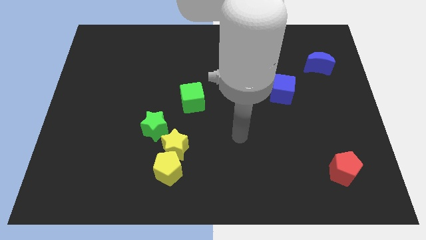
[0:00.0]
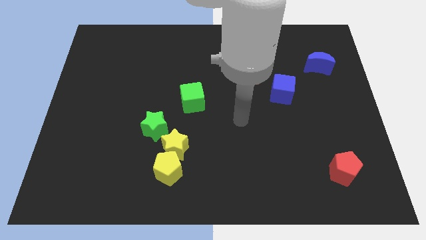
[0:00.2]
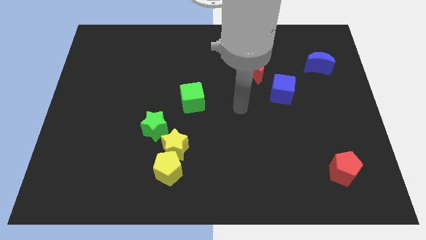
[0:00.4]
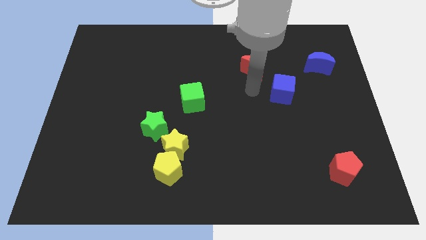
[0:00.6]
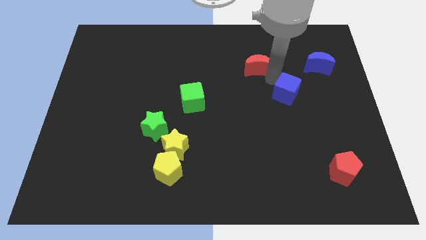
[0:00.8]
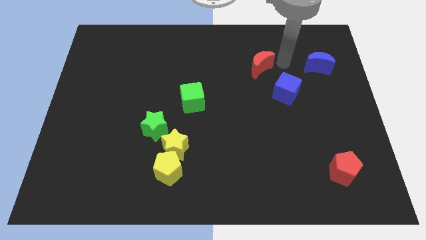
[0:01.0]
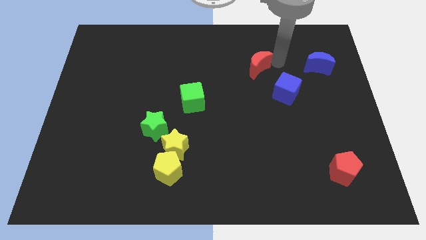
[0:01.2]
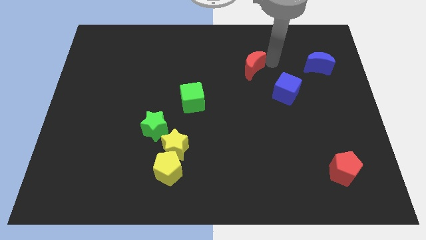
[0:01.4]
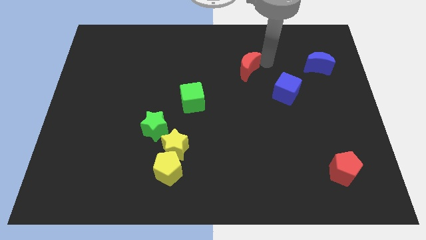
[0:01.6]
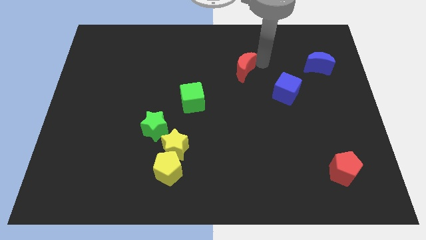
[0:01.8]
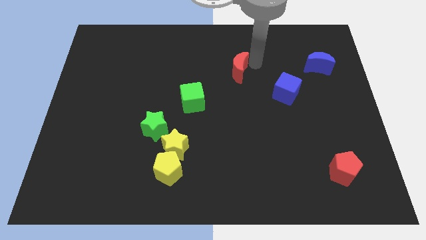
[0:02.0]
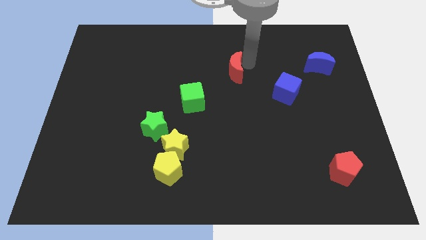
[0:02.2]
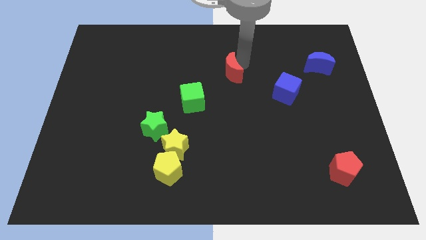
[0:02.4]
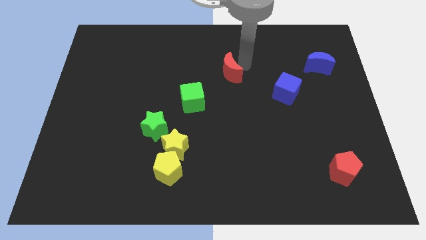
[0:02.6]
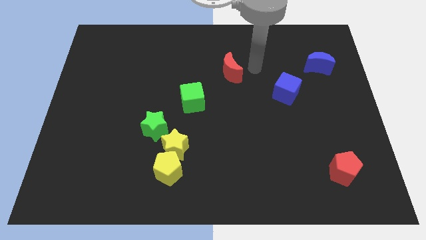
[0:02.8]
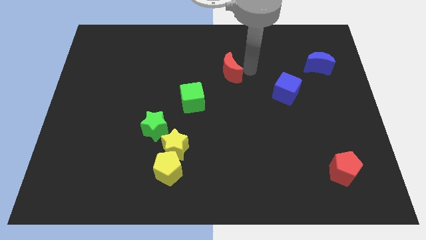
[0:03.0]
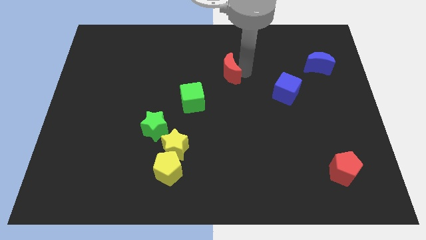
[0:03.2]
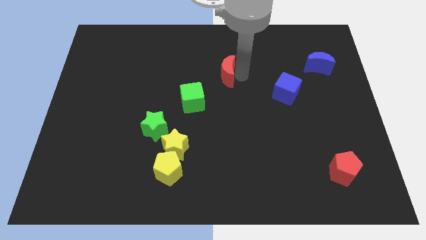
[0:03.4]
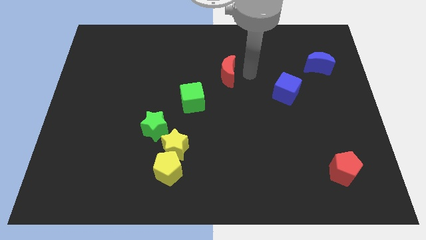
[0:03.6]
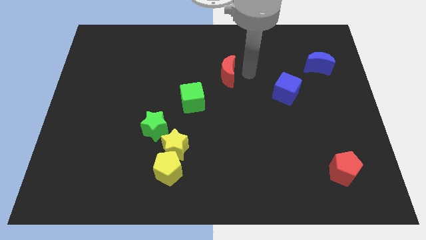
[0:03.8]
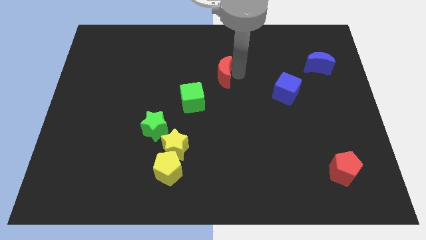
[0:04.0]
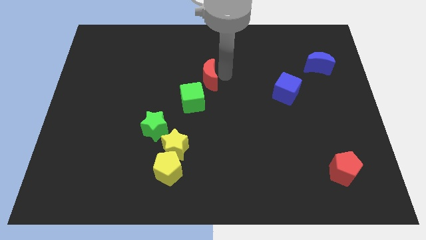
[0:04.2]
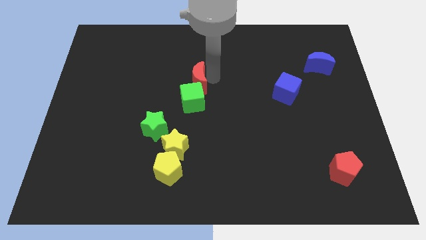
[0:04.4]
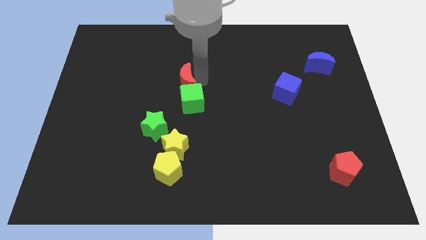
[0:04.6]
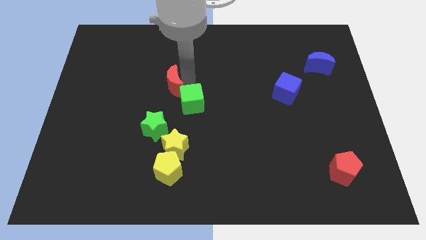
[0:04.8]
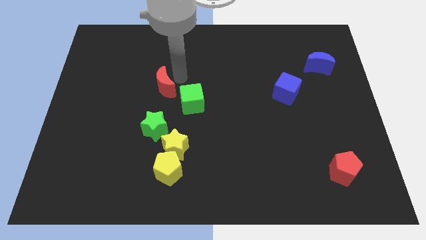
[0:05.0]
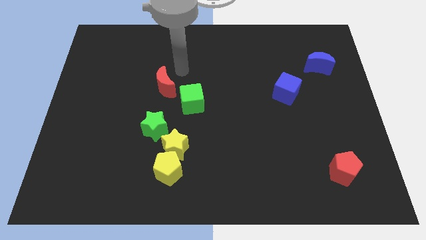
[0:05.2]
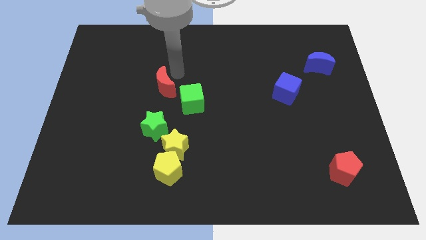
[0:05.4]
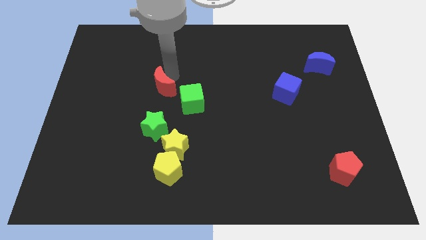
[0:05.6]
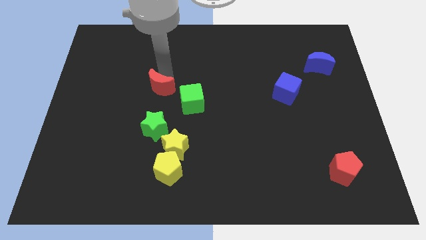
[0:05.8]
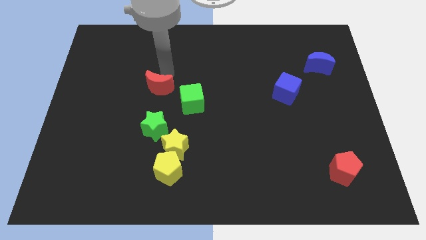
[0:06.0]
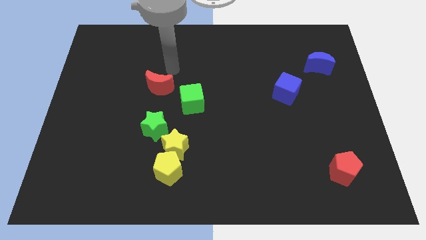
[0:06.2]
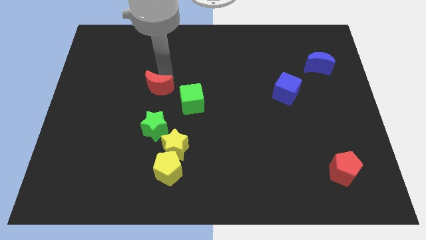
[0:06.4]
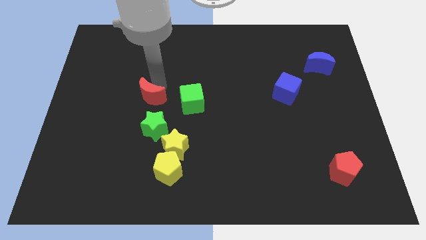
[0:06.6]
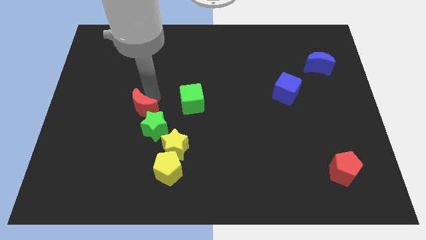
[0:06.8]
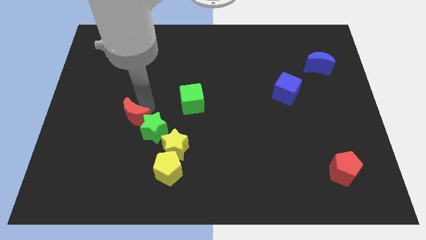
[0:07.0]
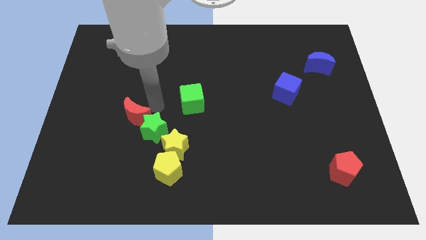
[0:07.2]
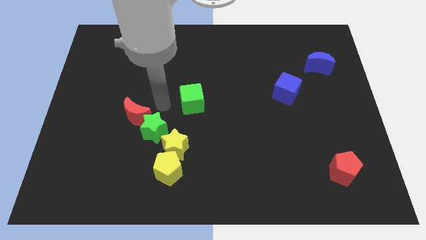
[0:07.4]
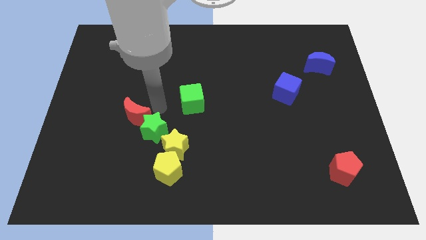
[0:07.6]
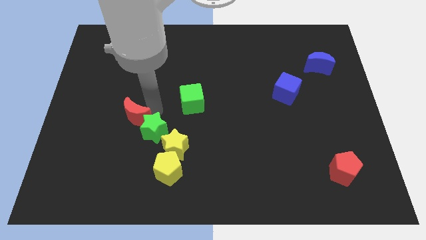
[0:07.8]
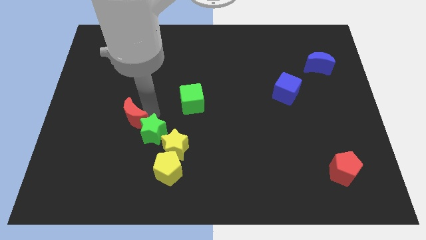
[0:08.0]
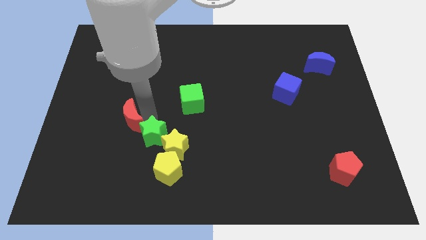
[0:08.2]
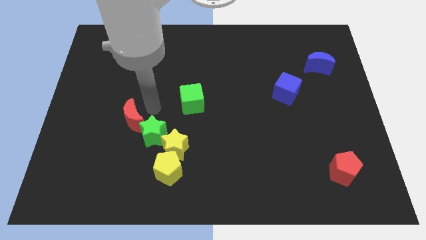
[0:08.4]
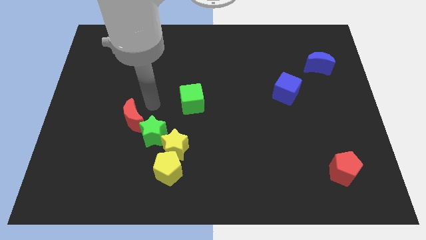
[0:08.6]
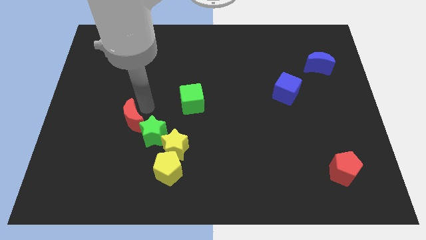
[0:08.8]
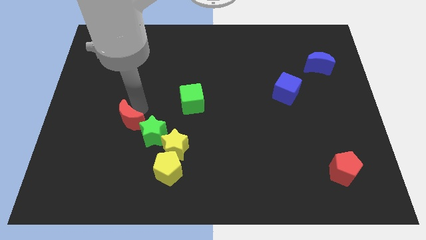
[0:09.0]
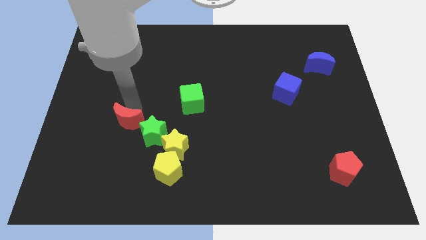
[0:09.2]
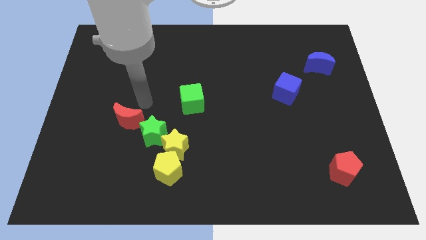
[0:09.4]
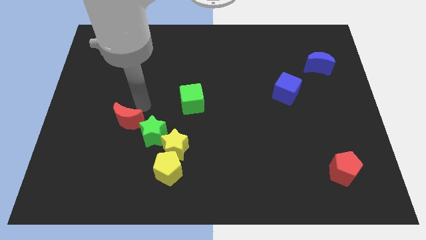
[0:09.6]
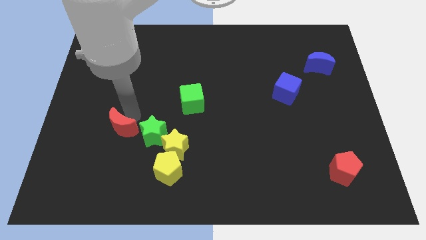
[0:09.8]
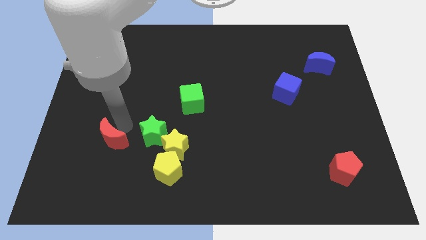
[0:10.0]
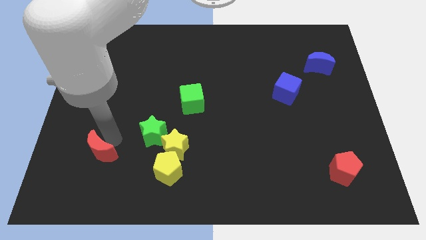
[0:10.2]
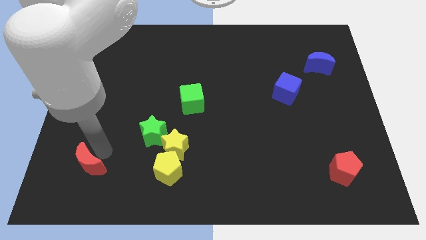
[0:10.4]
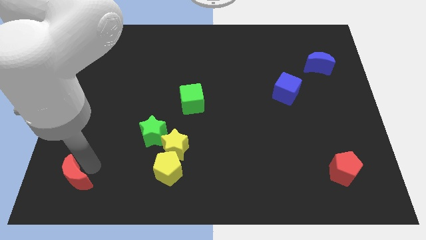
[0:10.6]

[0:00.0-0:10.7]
slide the red moon to the bottom left
